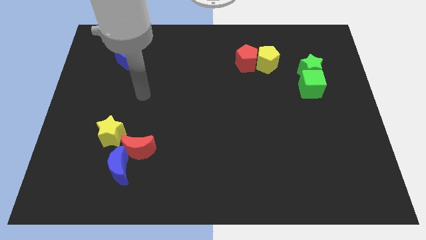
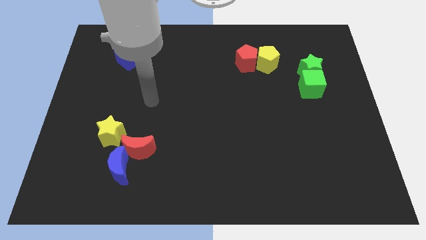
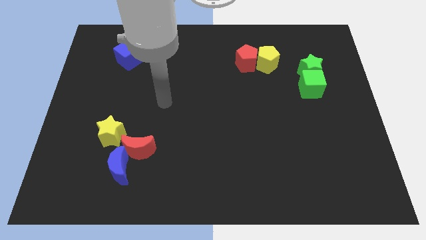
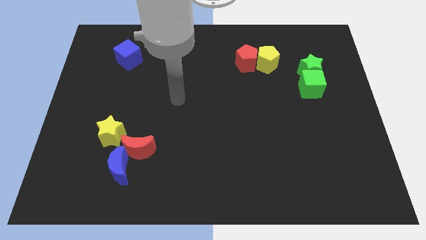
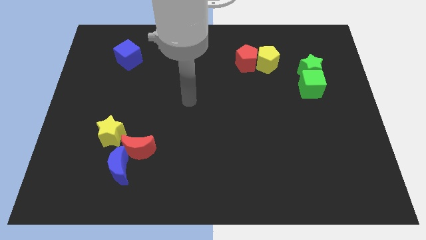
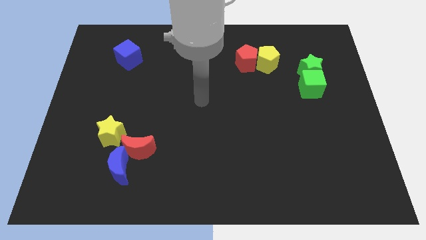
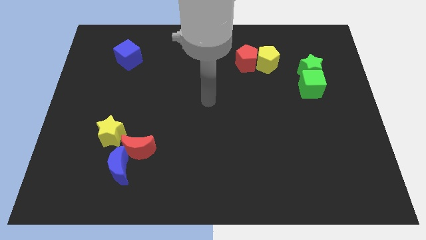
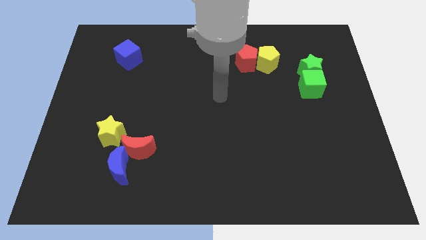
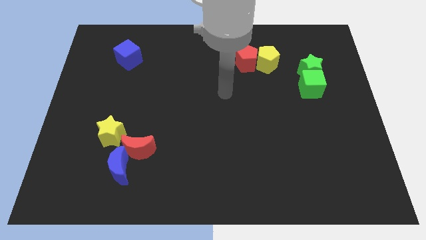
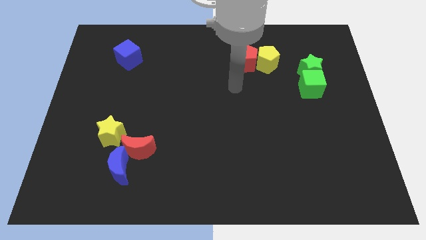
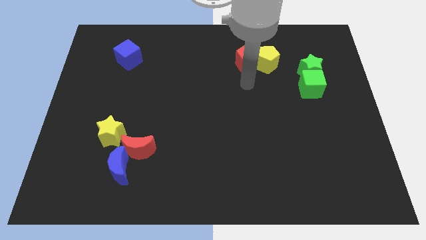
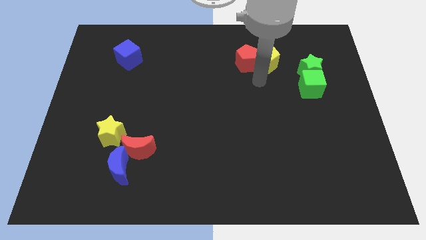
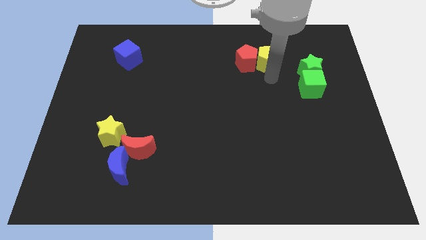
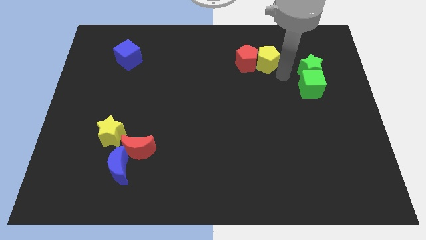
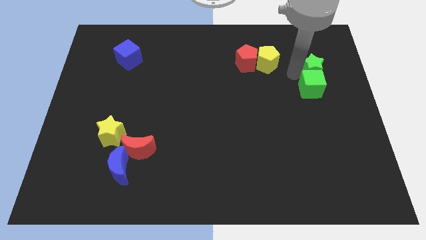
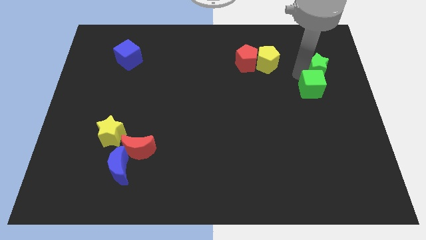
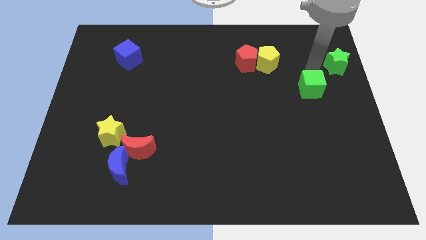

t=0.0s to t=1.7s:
move the green cube away from the green star

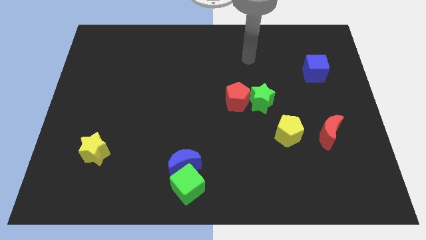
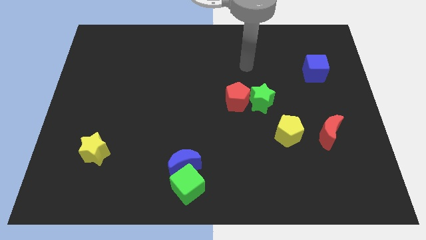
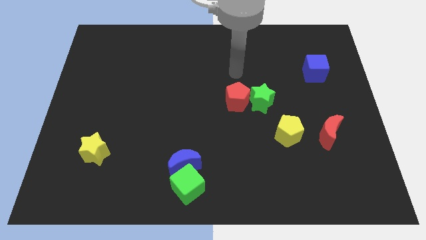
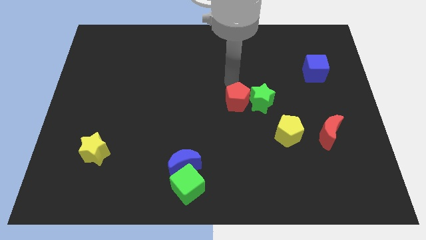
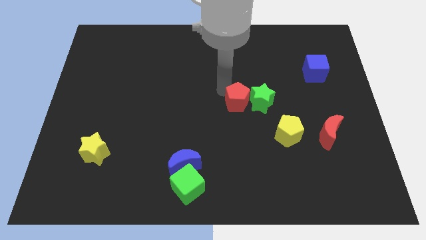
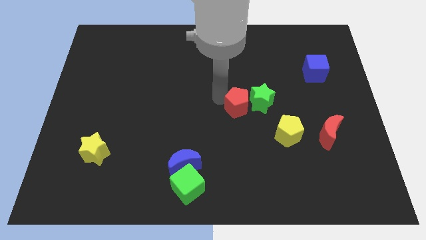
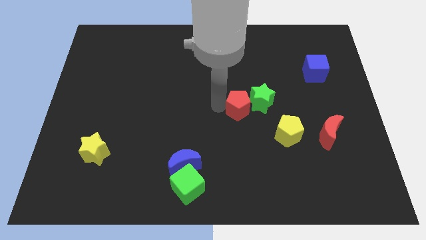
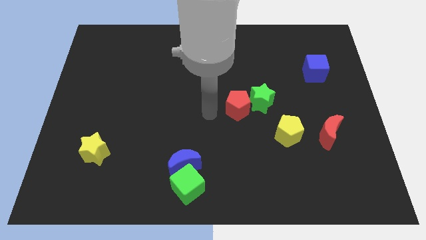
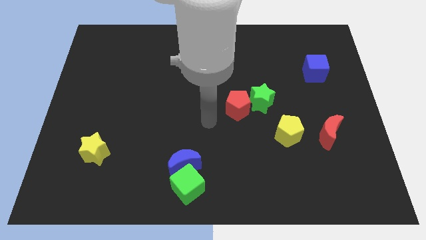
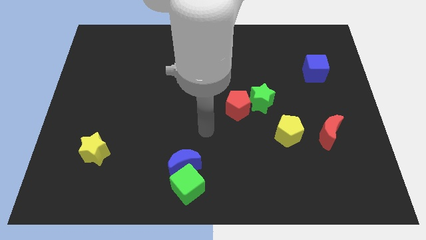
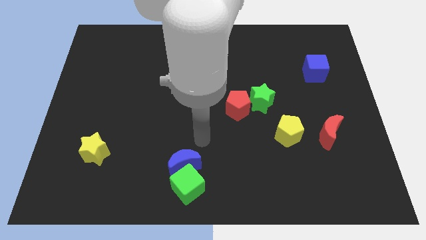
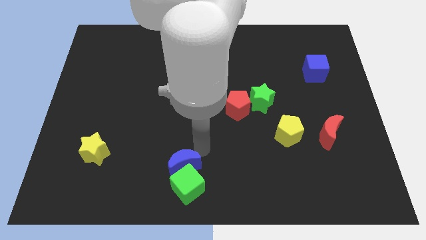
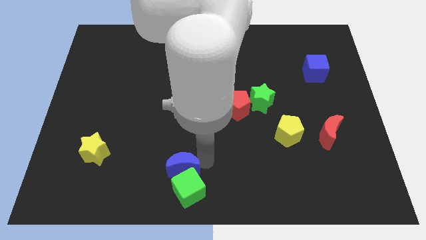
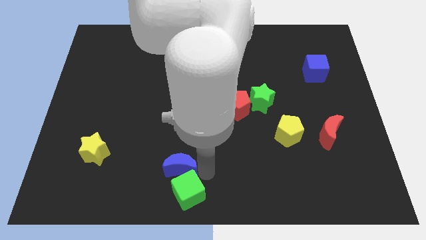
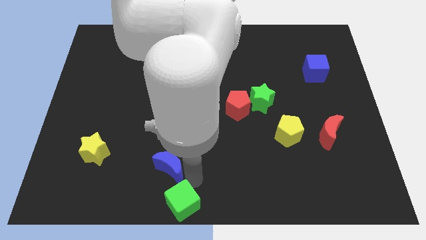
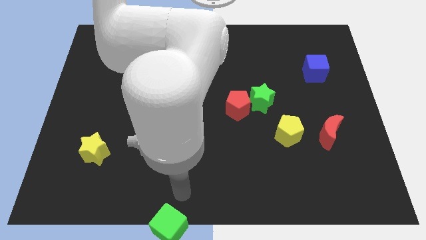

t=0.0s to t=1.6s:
move the blue moon away from the green cube

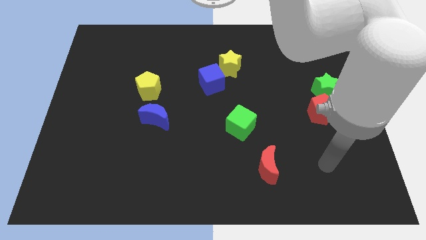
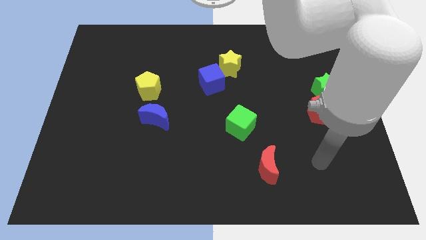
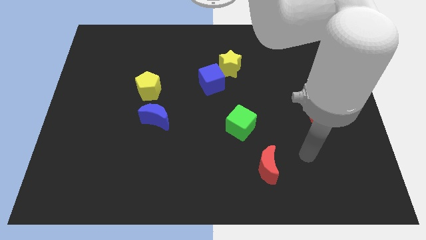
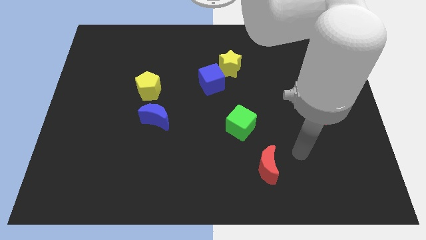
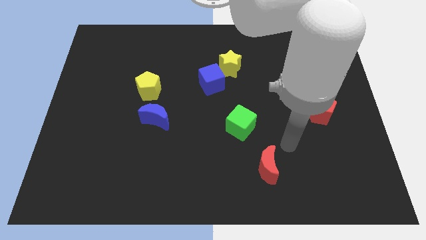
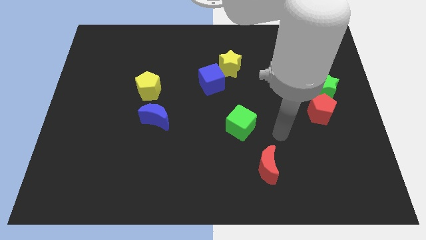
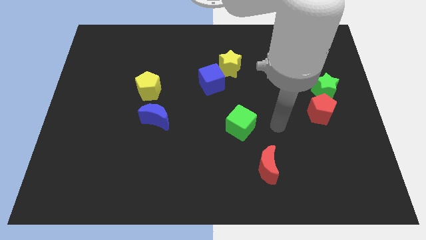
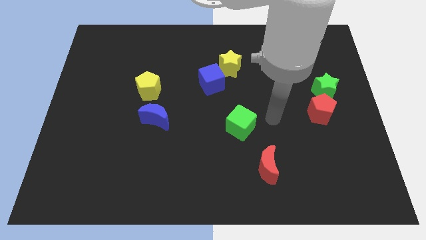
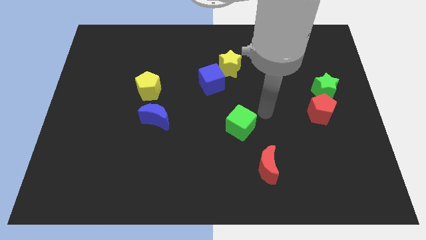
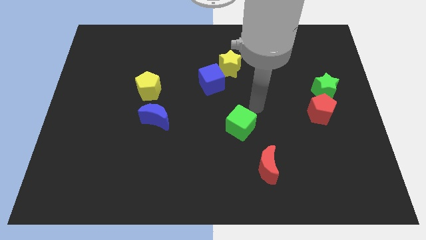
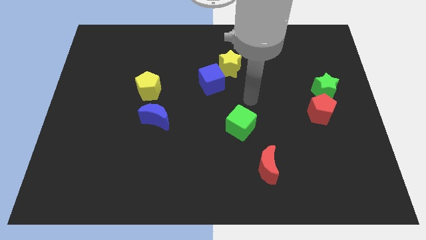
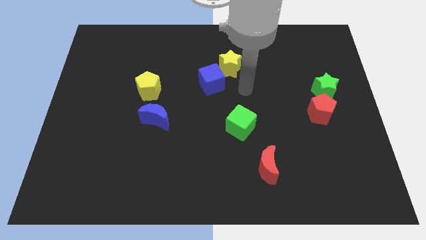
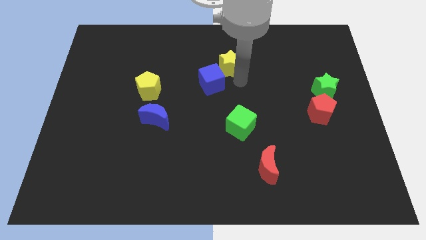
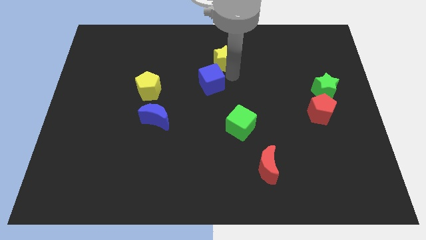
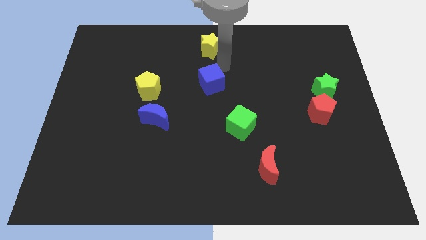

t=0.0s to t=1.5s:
separate the blue cube from the yellow star

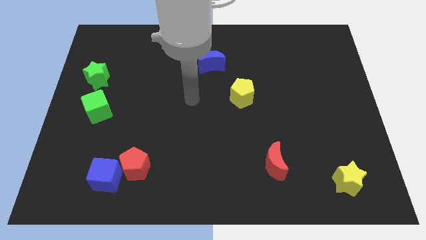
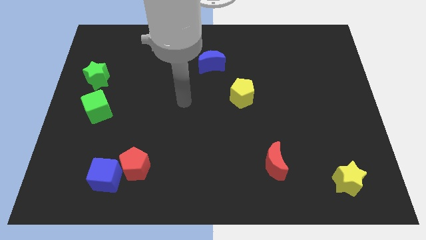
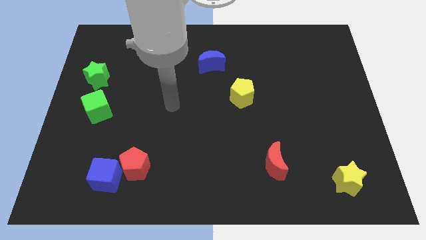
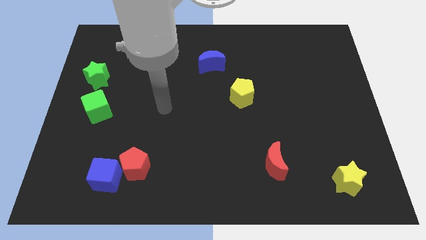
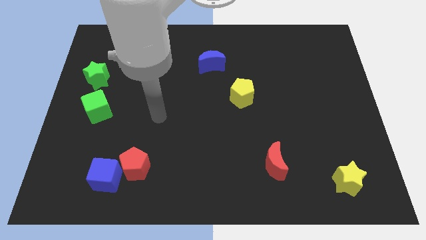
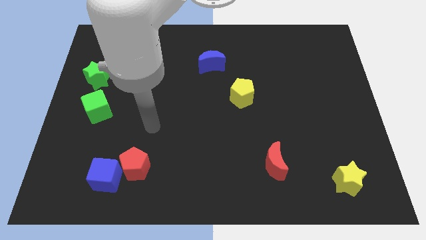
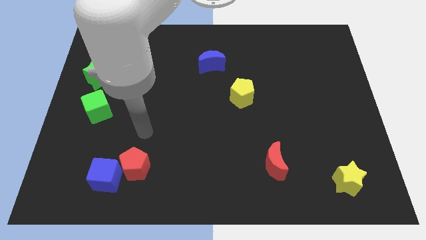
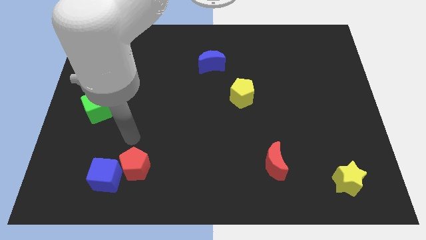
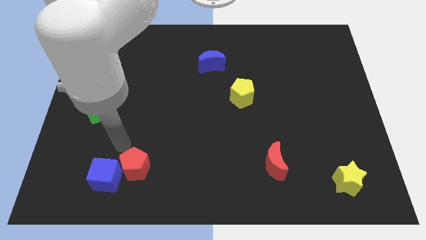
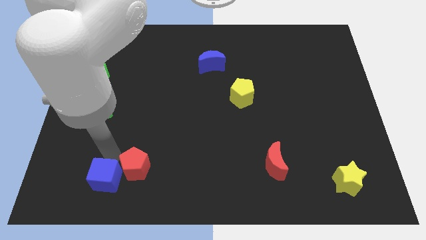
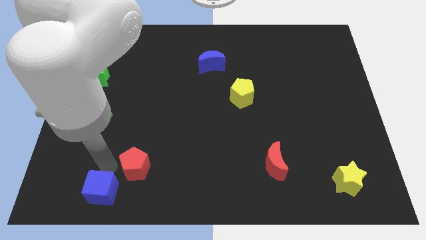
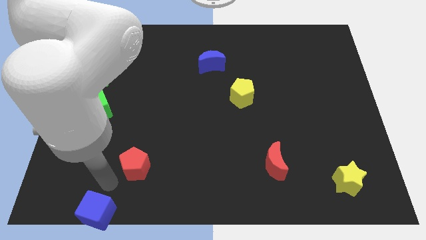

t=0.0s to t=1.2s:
separate the red pentagon from the blue cube

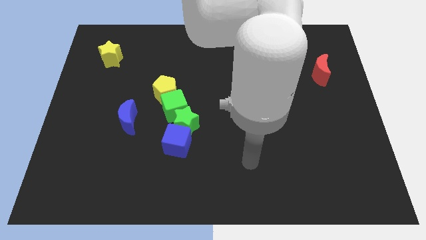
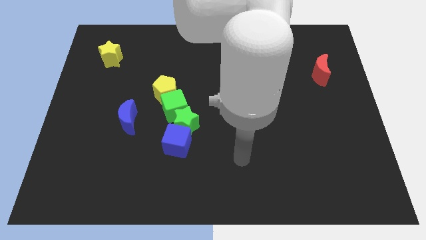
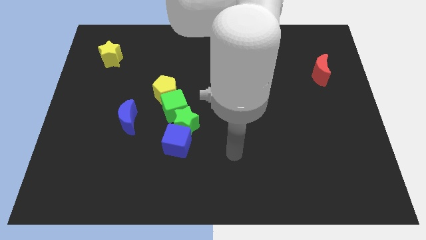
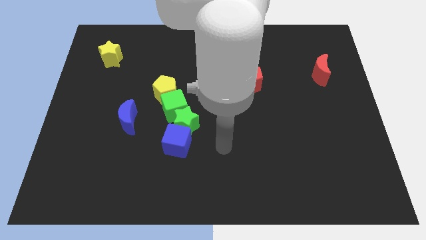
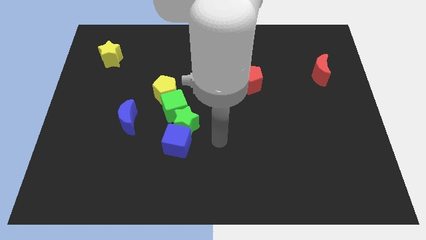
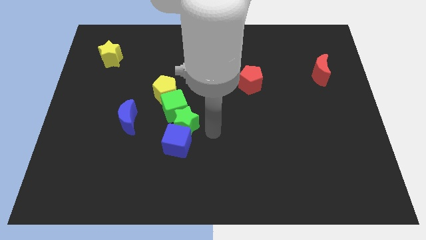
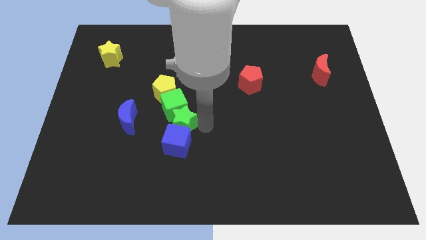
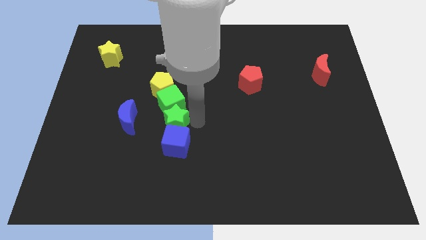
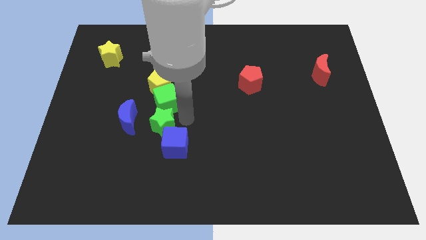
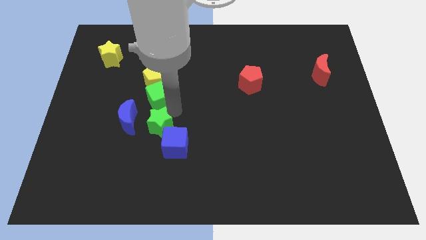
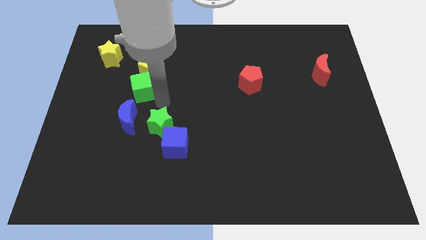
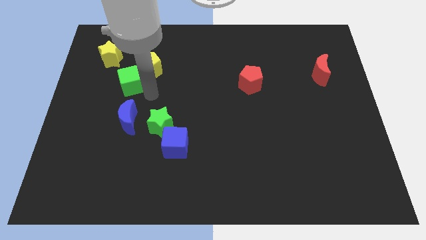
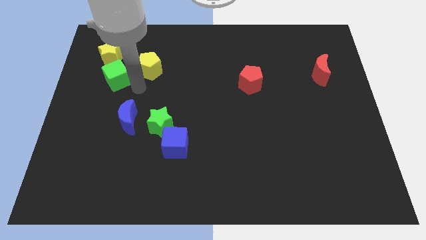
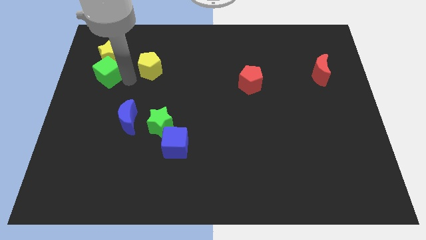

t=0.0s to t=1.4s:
move the yellow pentagon away from the green cube

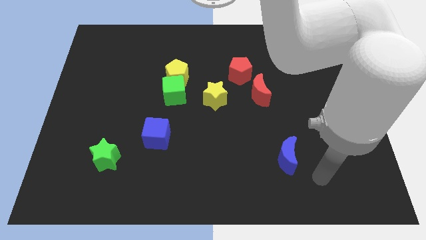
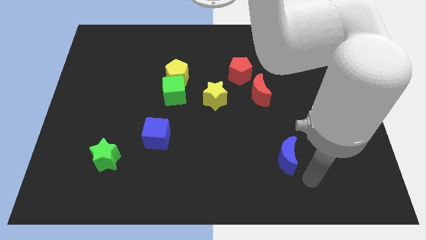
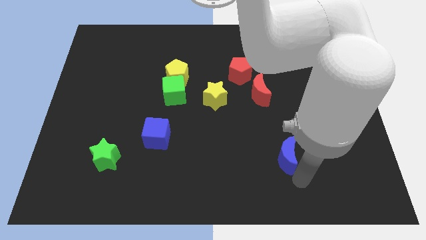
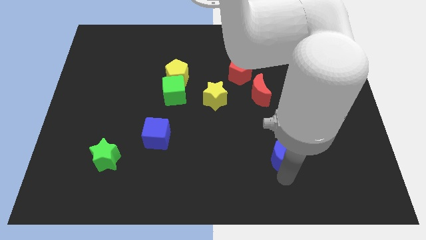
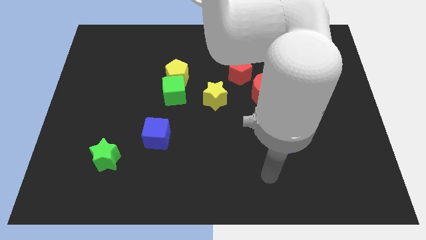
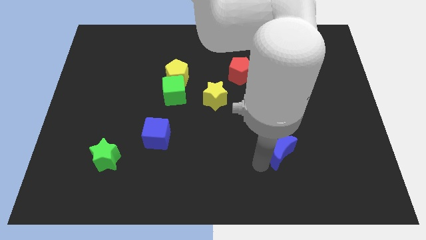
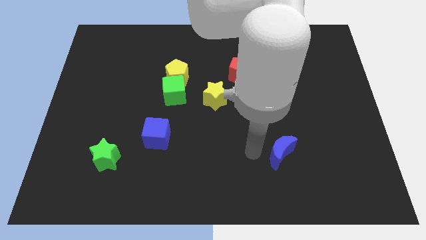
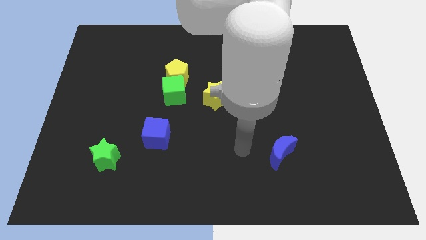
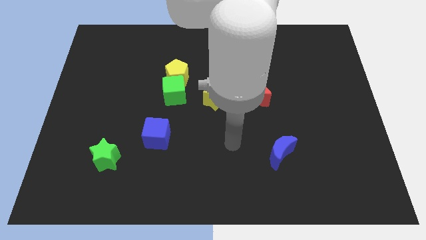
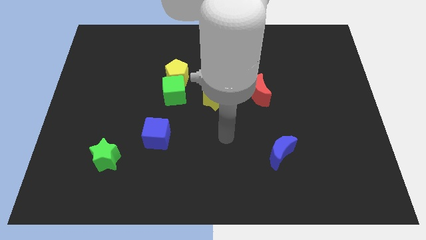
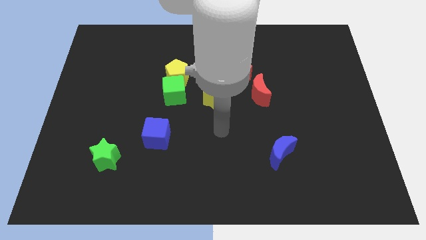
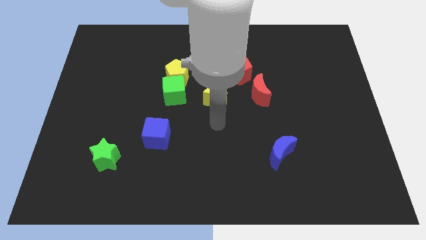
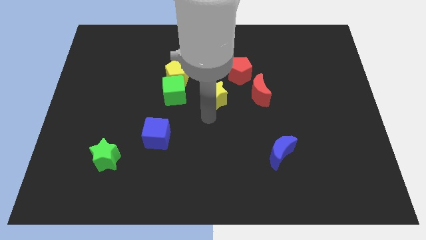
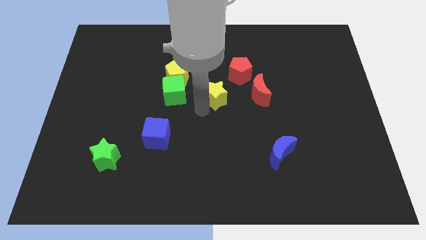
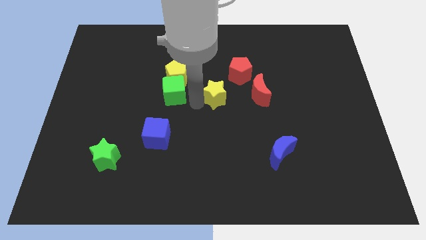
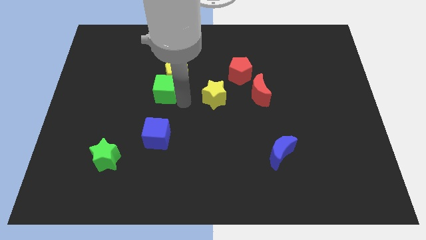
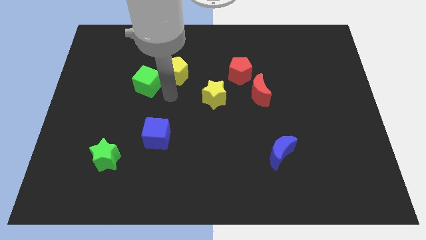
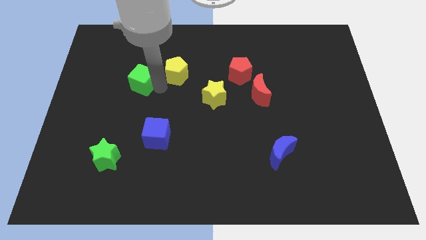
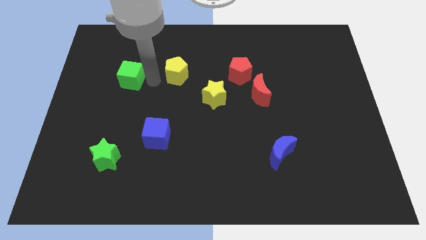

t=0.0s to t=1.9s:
separate the yellow pentagon from the green cube
